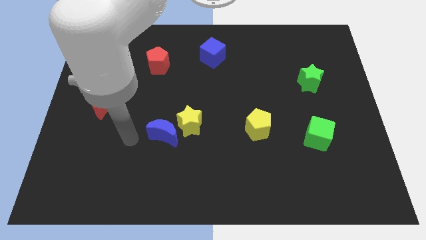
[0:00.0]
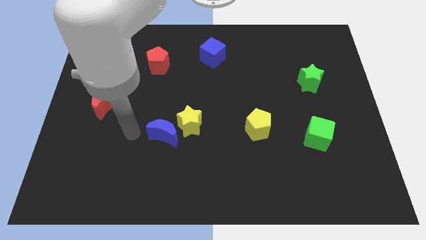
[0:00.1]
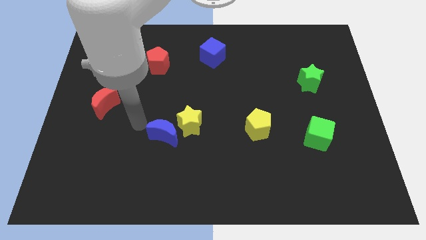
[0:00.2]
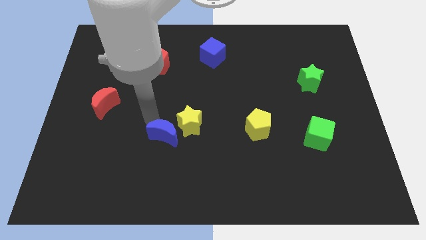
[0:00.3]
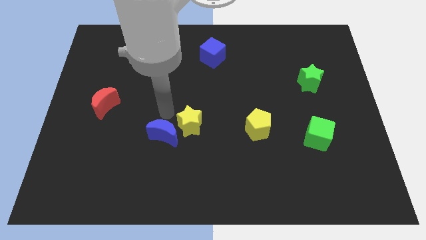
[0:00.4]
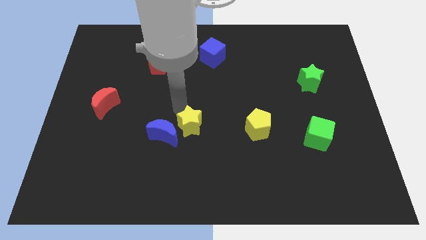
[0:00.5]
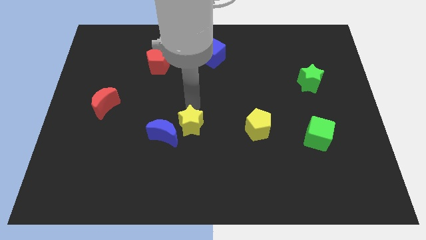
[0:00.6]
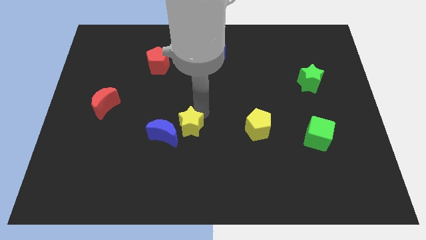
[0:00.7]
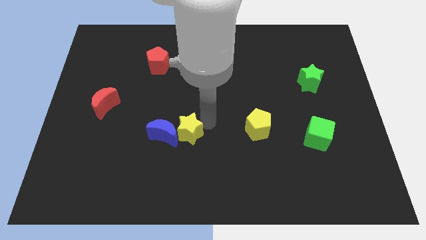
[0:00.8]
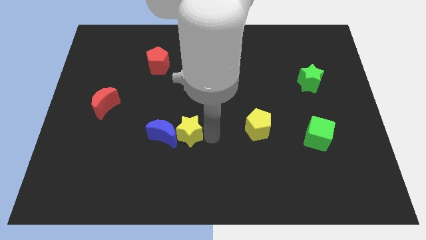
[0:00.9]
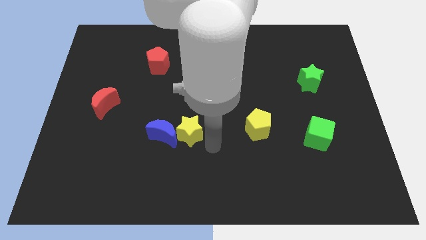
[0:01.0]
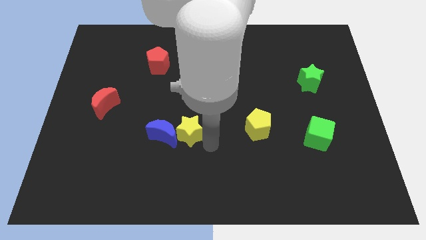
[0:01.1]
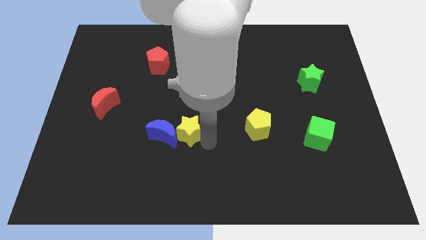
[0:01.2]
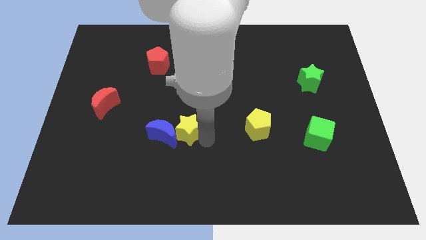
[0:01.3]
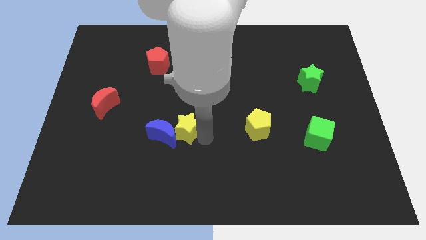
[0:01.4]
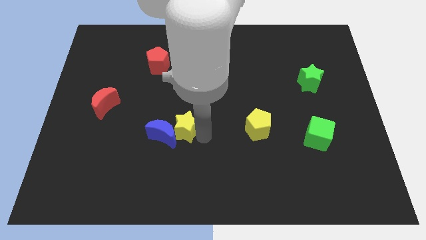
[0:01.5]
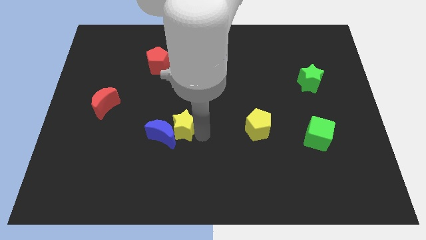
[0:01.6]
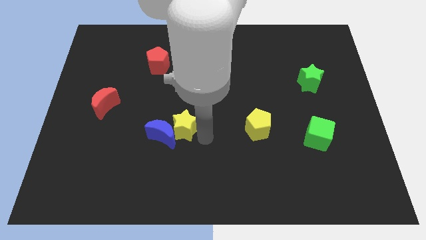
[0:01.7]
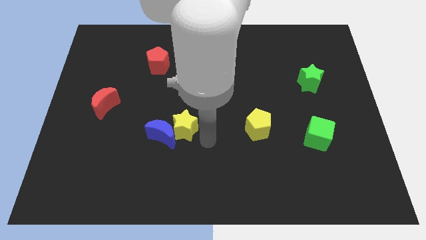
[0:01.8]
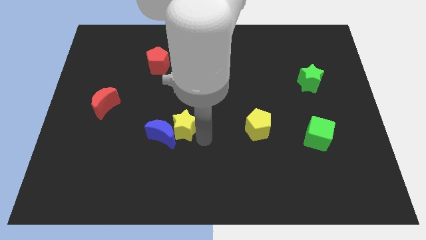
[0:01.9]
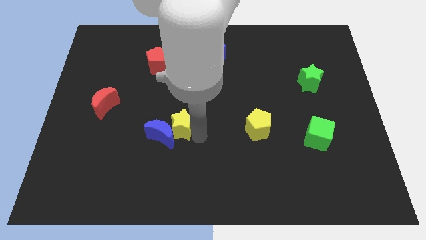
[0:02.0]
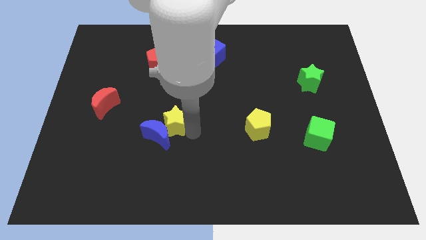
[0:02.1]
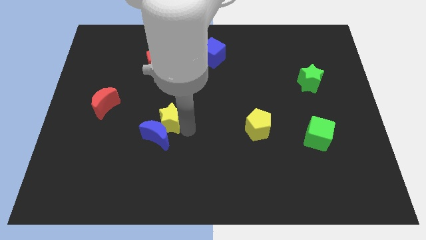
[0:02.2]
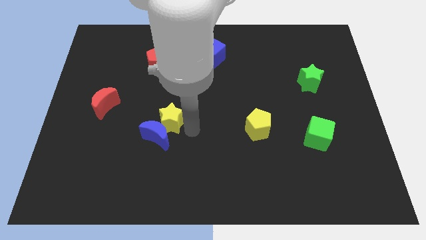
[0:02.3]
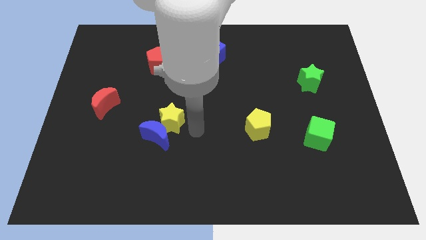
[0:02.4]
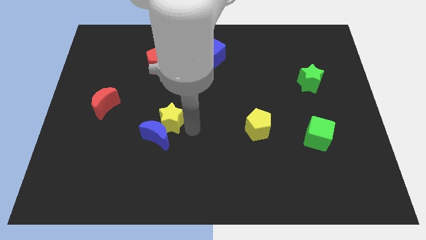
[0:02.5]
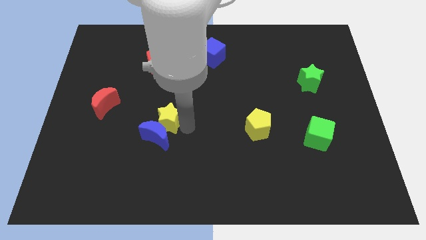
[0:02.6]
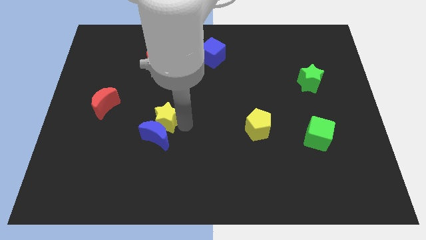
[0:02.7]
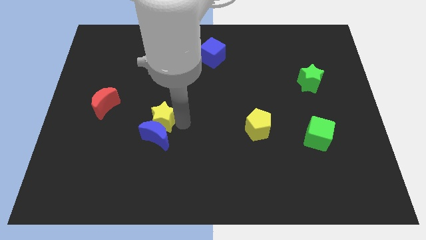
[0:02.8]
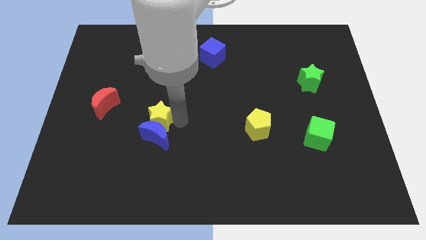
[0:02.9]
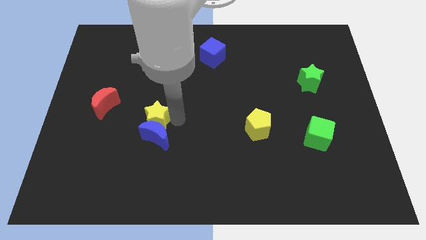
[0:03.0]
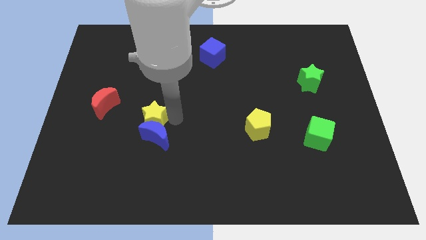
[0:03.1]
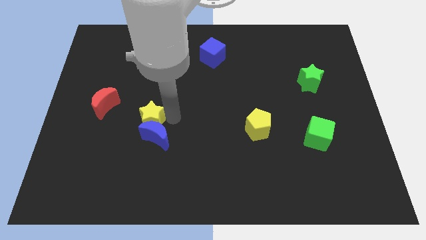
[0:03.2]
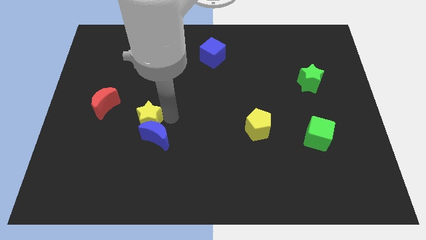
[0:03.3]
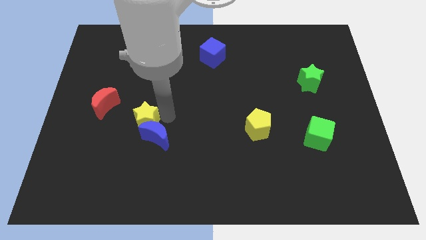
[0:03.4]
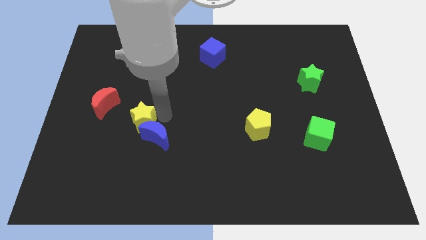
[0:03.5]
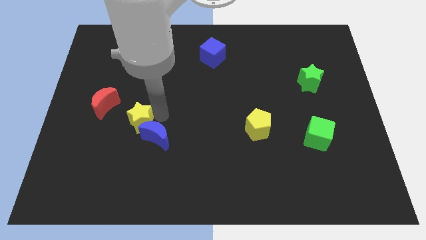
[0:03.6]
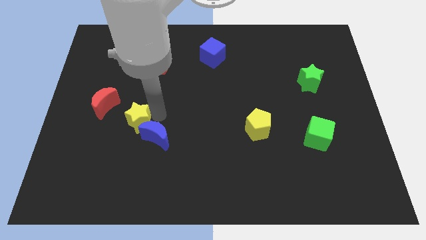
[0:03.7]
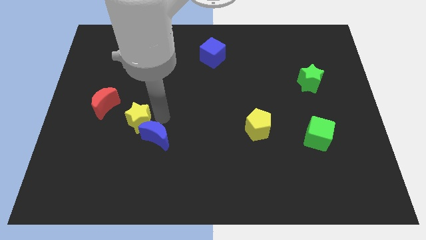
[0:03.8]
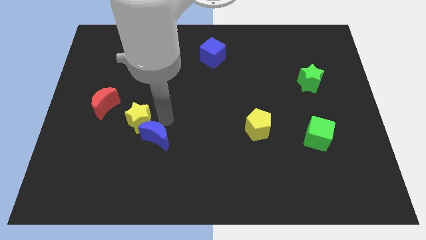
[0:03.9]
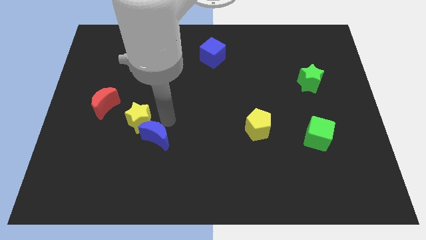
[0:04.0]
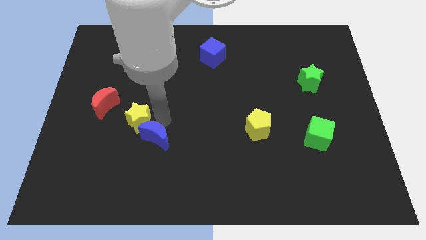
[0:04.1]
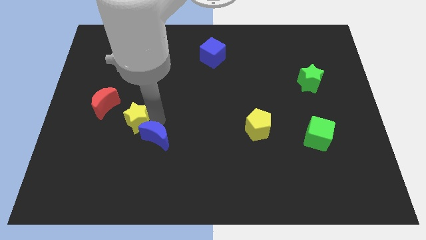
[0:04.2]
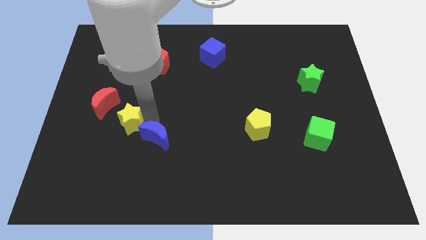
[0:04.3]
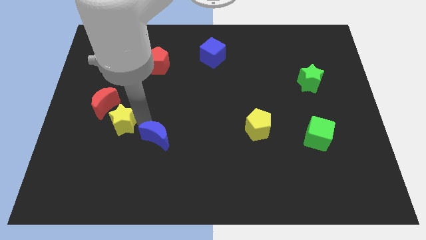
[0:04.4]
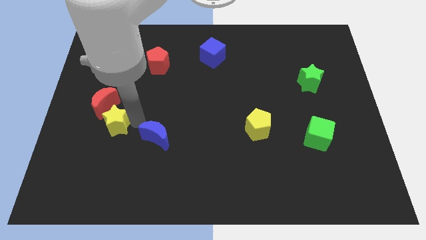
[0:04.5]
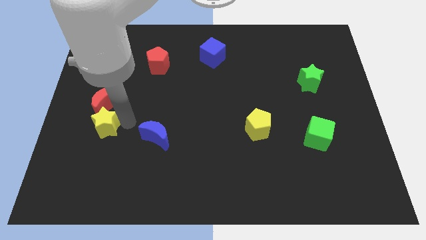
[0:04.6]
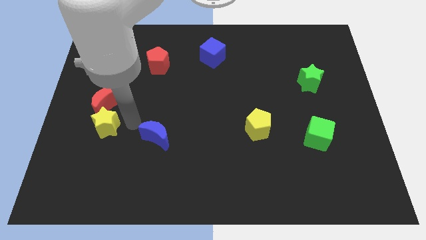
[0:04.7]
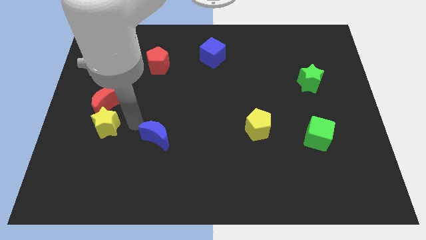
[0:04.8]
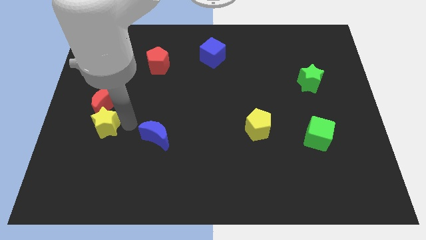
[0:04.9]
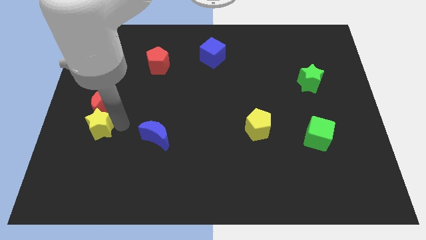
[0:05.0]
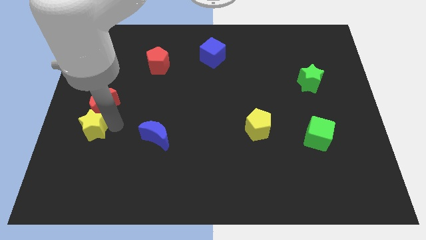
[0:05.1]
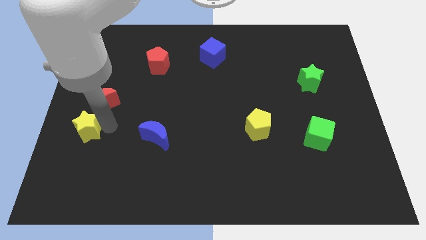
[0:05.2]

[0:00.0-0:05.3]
put the yellow star to the center left
